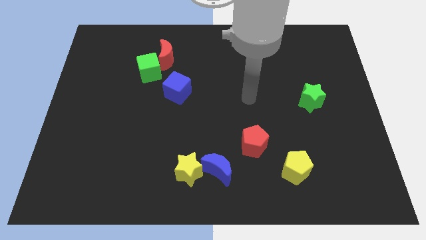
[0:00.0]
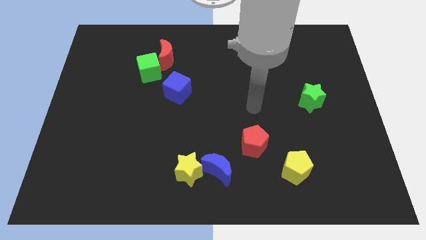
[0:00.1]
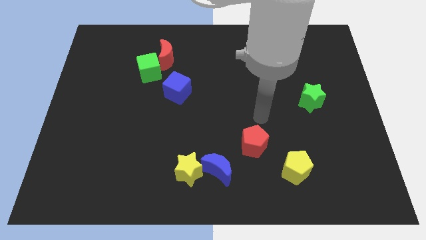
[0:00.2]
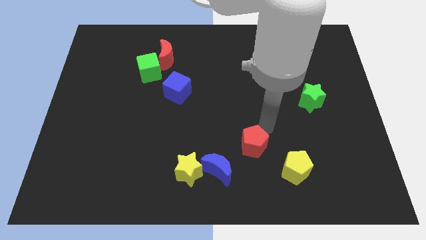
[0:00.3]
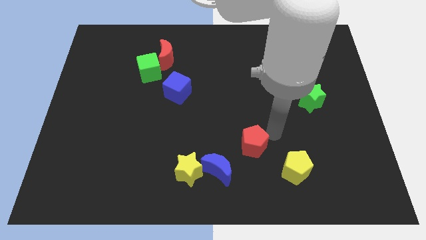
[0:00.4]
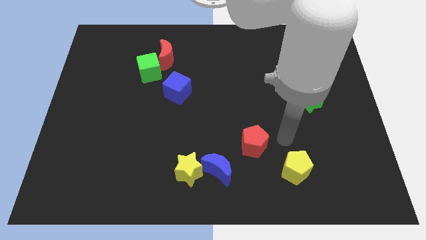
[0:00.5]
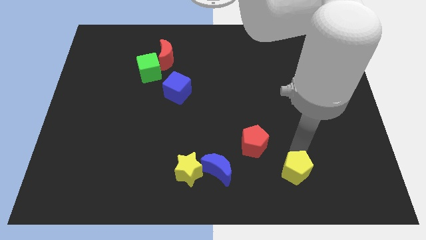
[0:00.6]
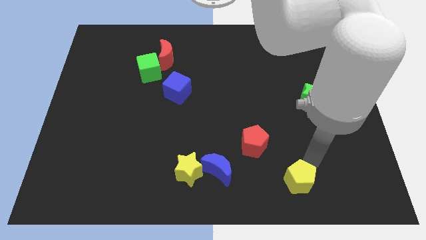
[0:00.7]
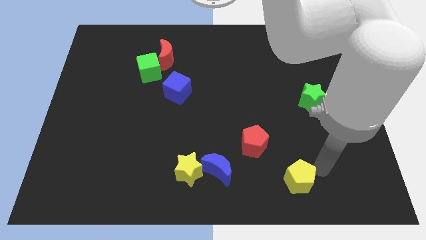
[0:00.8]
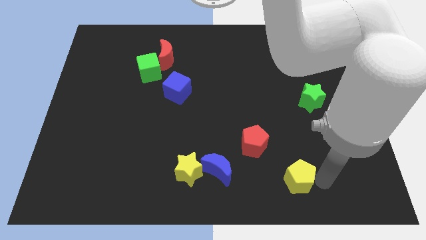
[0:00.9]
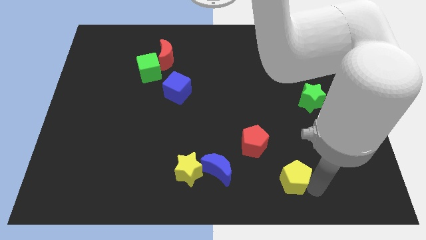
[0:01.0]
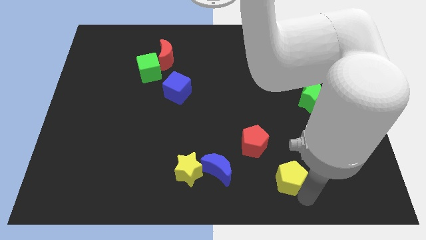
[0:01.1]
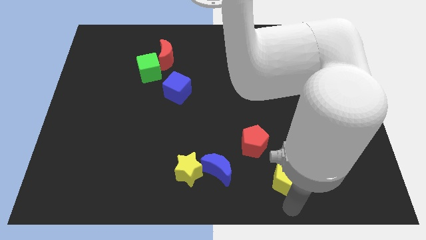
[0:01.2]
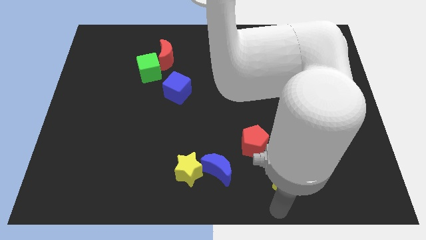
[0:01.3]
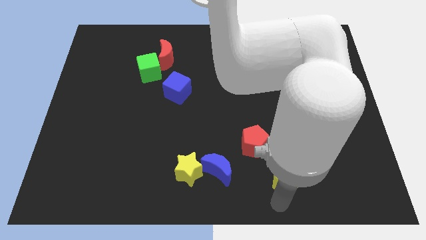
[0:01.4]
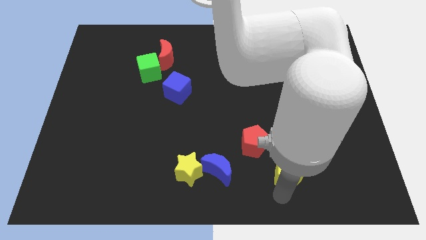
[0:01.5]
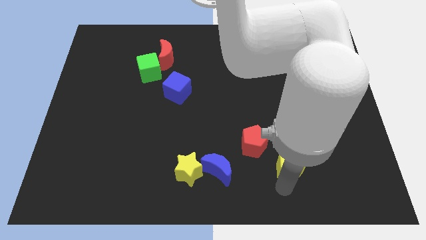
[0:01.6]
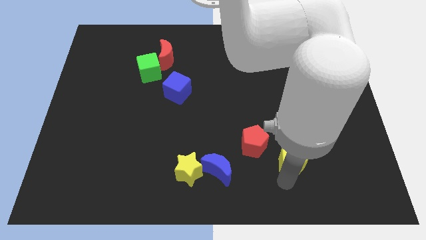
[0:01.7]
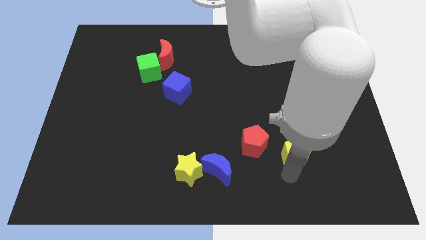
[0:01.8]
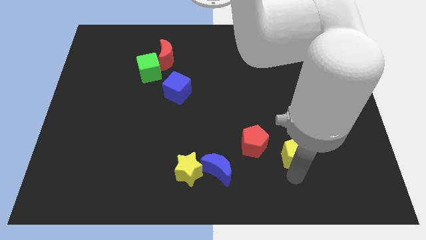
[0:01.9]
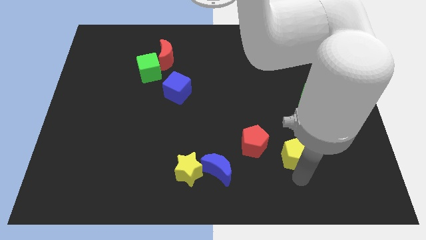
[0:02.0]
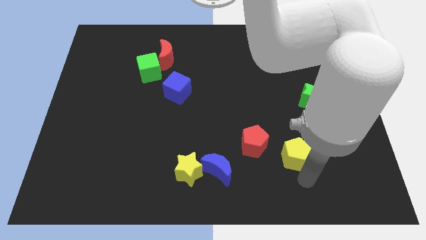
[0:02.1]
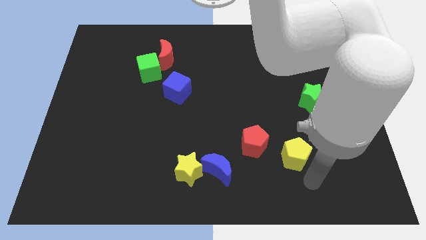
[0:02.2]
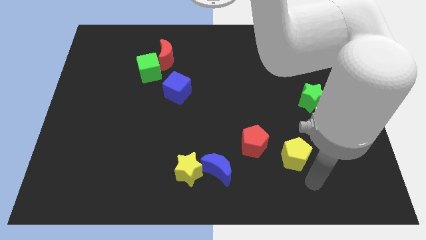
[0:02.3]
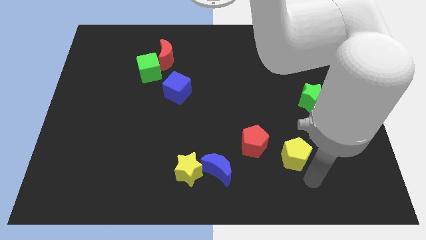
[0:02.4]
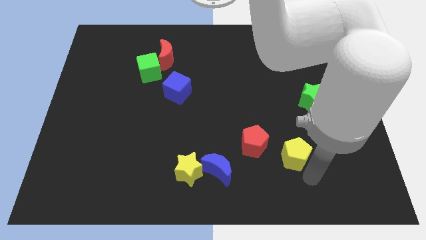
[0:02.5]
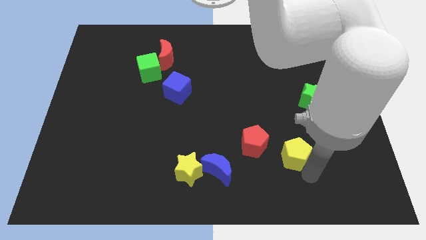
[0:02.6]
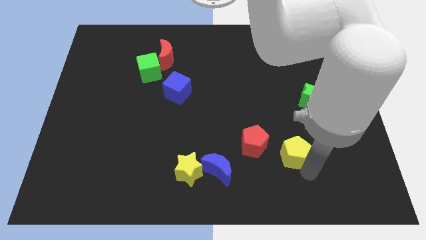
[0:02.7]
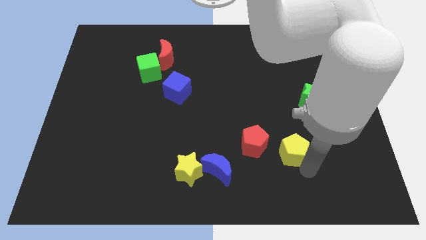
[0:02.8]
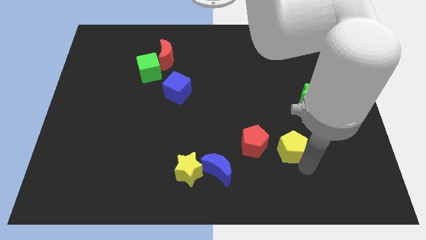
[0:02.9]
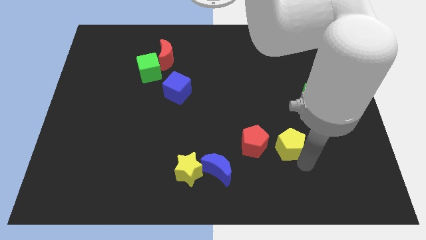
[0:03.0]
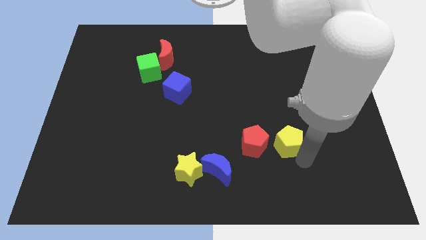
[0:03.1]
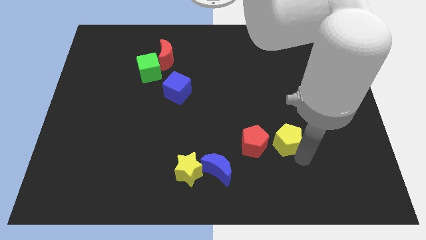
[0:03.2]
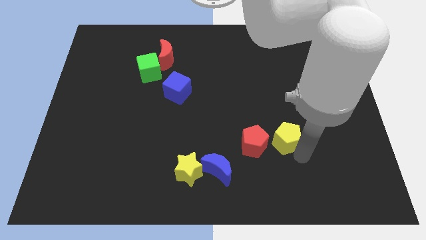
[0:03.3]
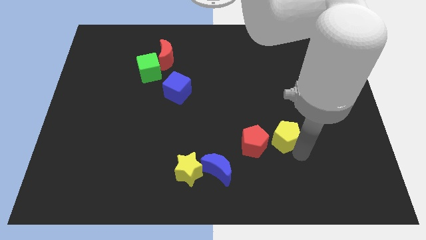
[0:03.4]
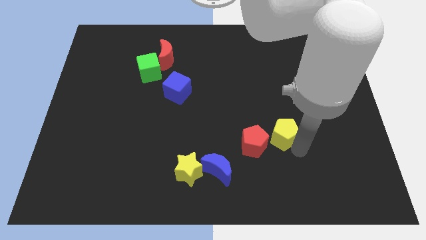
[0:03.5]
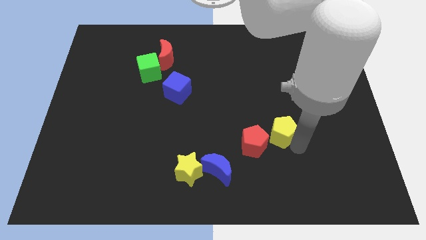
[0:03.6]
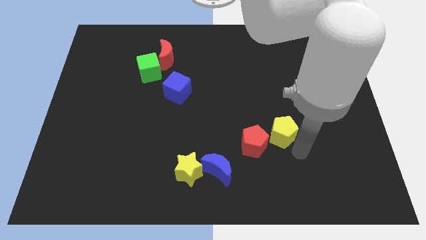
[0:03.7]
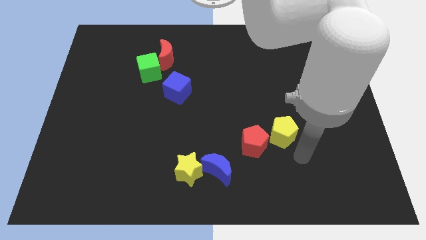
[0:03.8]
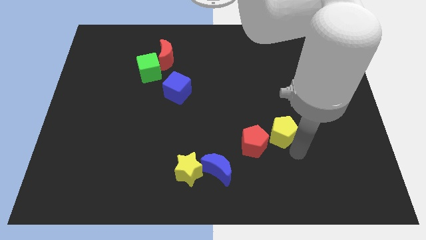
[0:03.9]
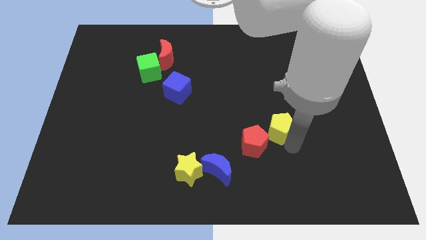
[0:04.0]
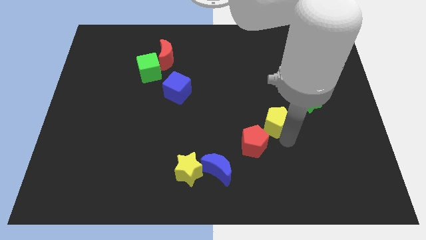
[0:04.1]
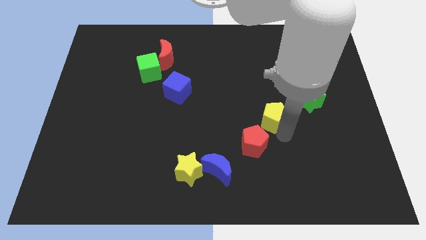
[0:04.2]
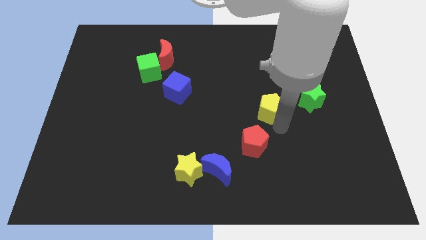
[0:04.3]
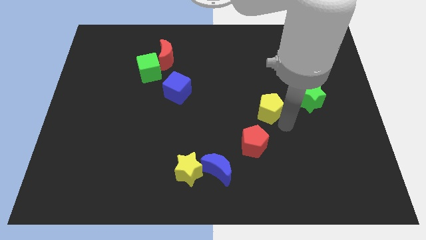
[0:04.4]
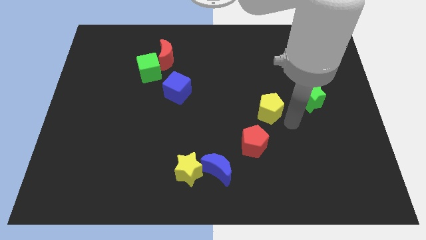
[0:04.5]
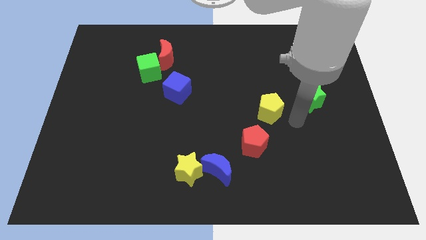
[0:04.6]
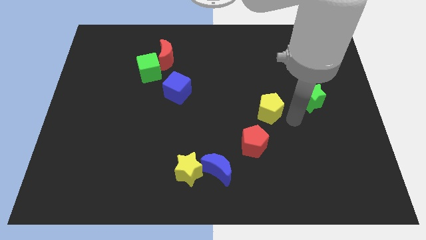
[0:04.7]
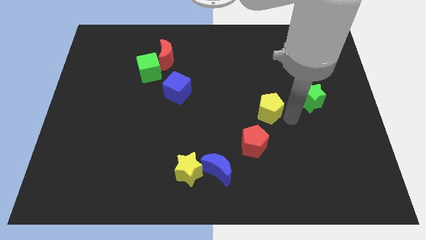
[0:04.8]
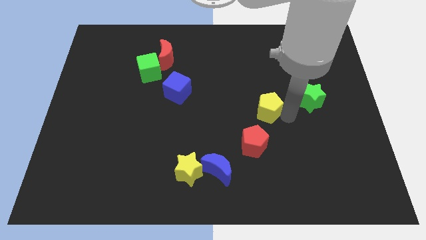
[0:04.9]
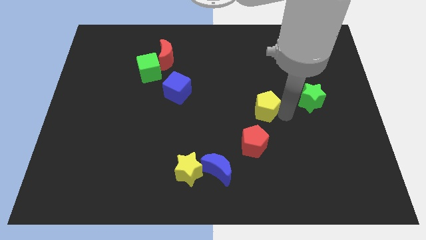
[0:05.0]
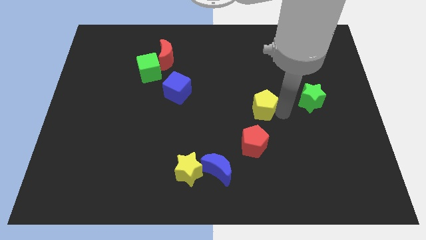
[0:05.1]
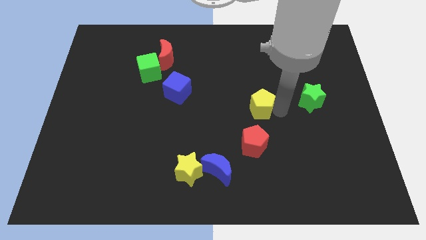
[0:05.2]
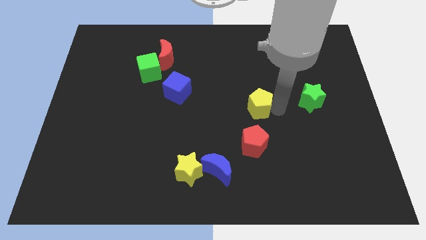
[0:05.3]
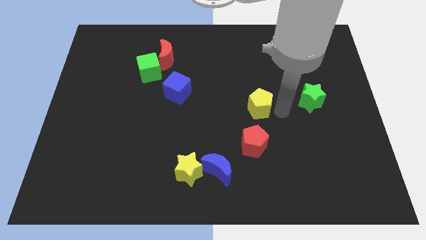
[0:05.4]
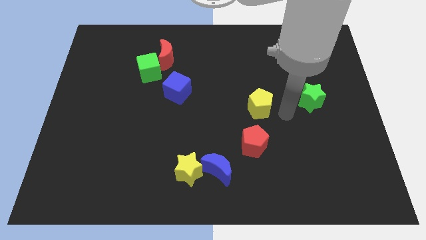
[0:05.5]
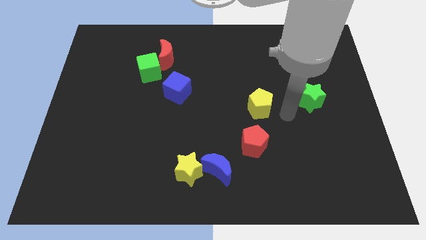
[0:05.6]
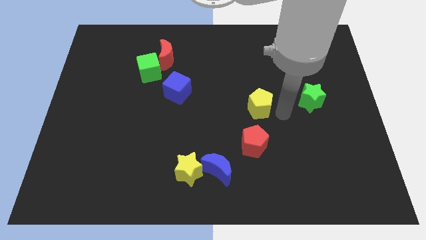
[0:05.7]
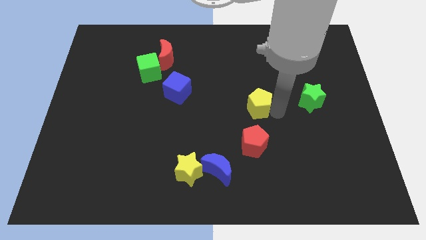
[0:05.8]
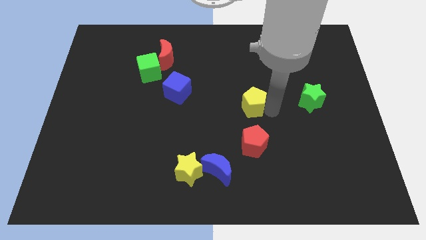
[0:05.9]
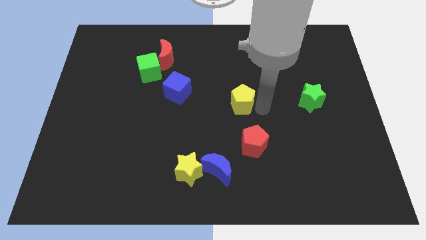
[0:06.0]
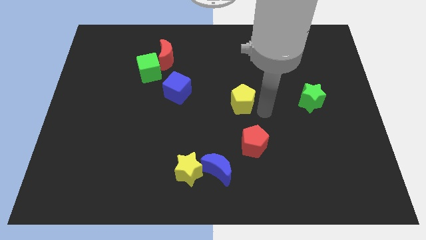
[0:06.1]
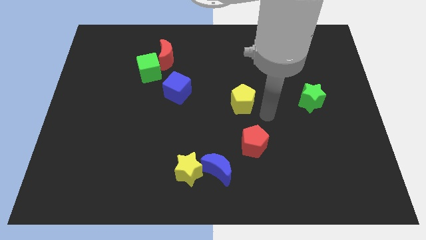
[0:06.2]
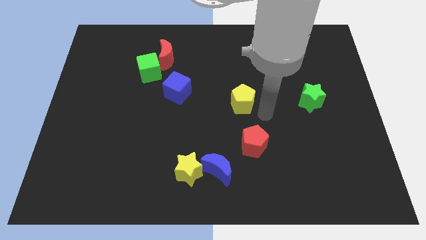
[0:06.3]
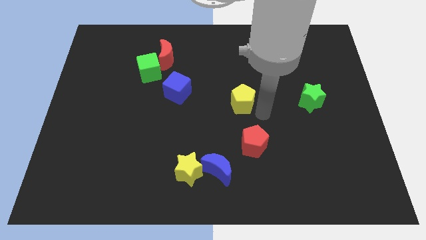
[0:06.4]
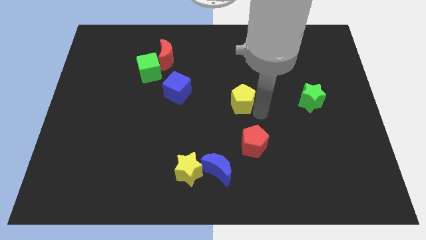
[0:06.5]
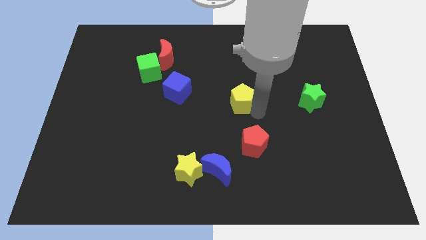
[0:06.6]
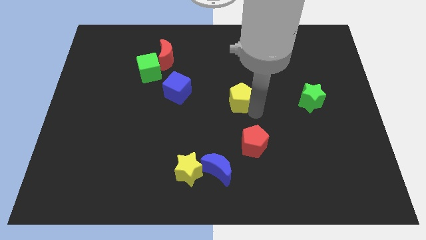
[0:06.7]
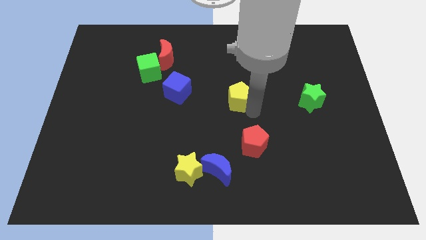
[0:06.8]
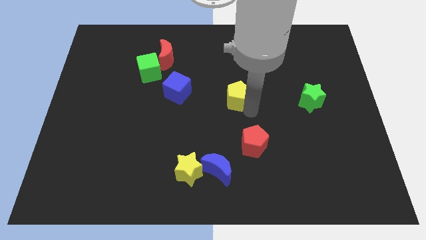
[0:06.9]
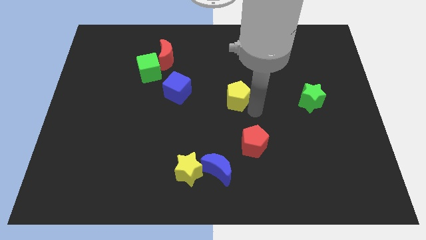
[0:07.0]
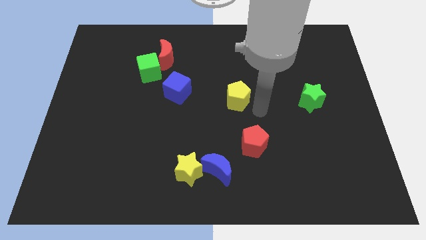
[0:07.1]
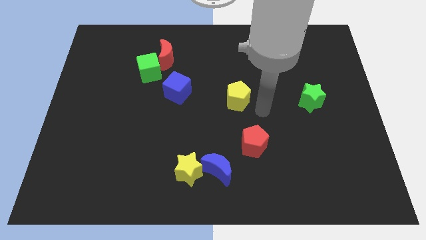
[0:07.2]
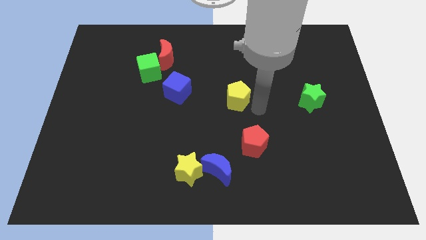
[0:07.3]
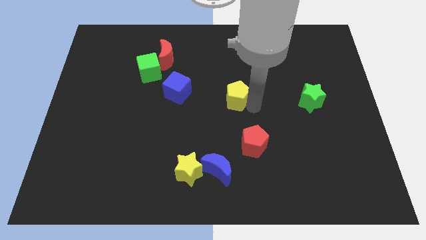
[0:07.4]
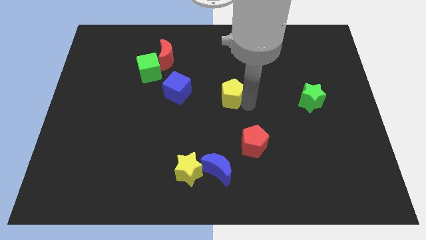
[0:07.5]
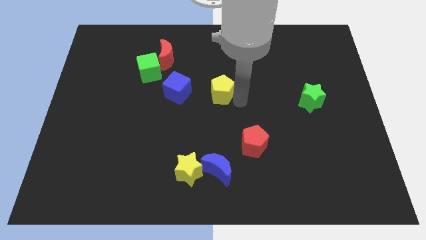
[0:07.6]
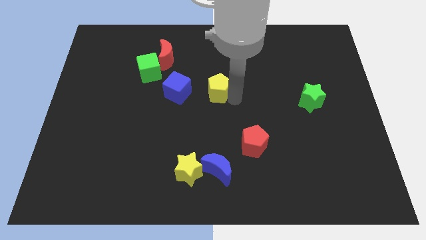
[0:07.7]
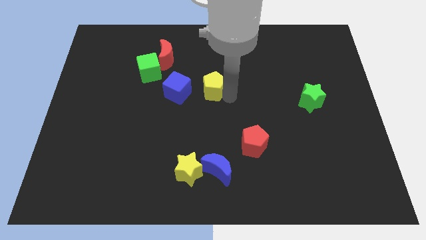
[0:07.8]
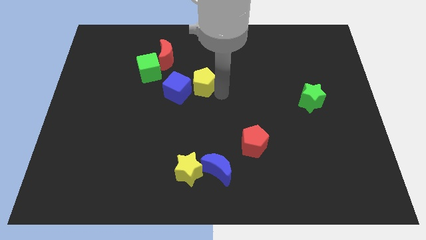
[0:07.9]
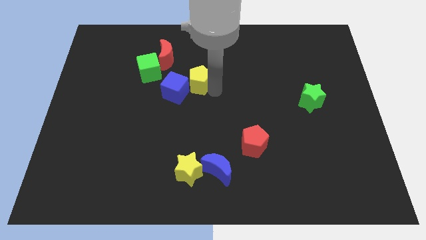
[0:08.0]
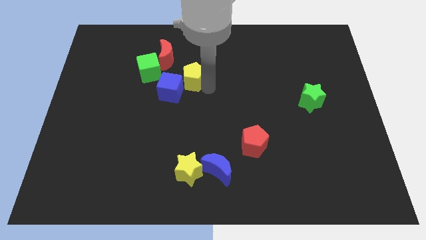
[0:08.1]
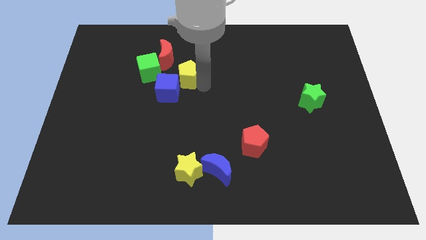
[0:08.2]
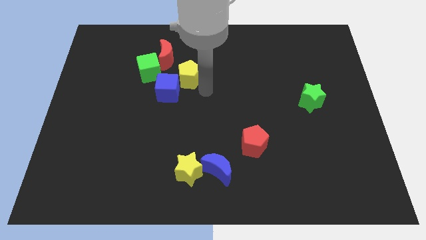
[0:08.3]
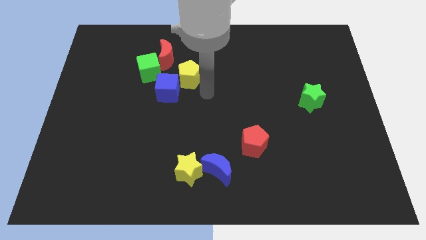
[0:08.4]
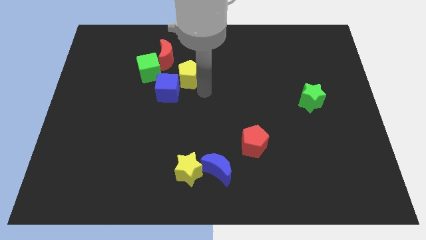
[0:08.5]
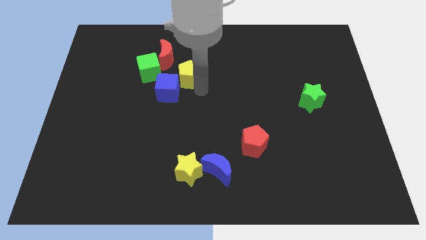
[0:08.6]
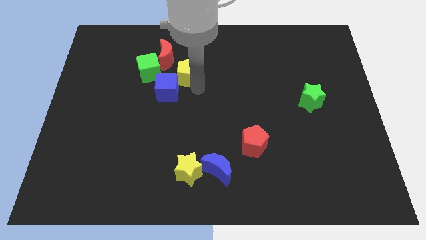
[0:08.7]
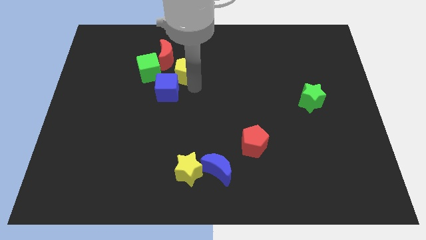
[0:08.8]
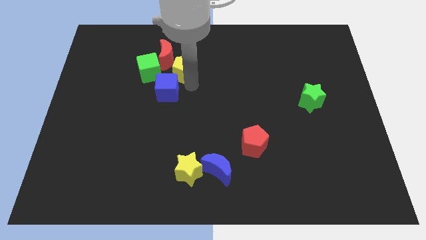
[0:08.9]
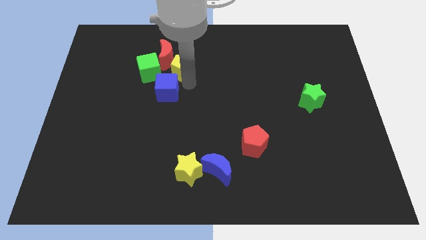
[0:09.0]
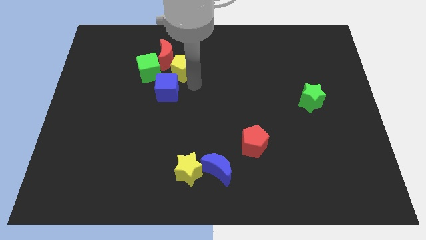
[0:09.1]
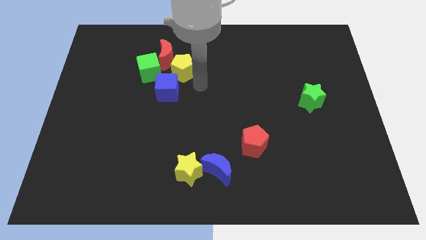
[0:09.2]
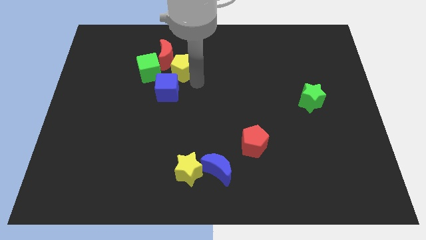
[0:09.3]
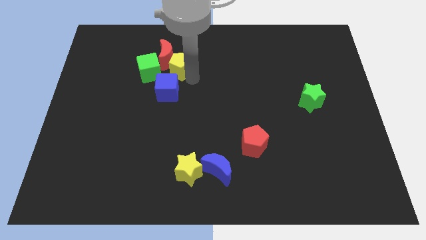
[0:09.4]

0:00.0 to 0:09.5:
slide the yellow pentagon towards the red moon
